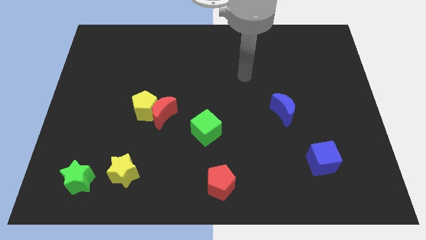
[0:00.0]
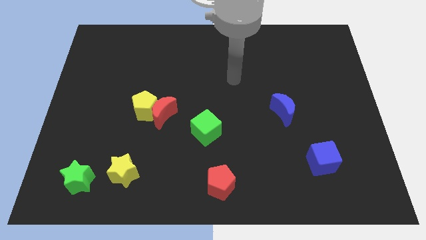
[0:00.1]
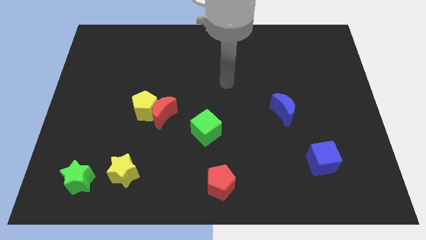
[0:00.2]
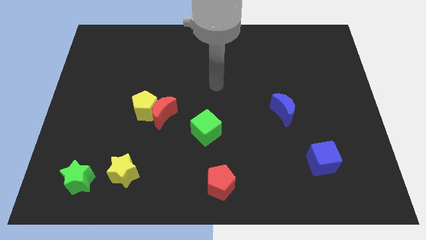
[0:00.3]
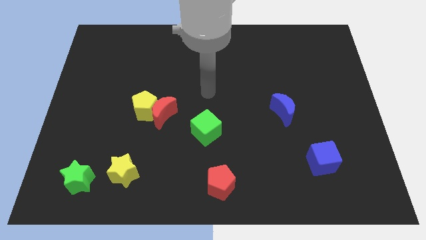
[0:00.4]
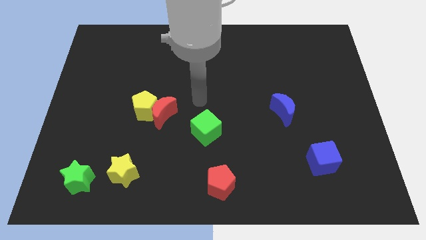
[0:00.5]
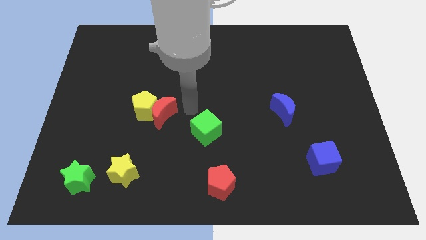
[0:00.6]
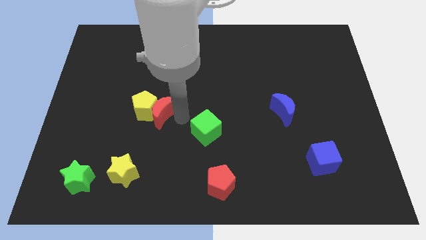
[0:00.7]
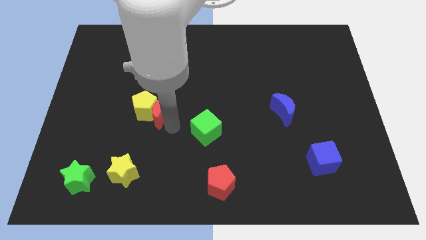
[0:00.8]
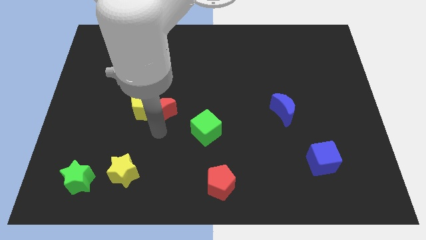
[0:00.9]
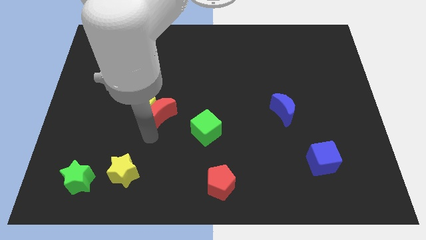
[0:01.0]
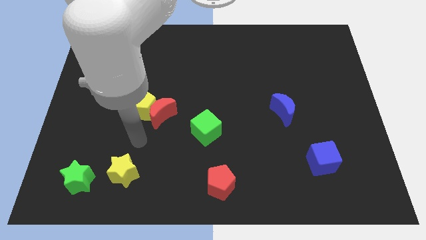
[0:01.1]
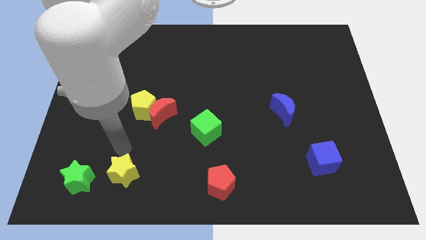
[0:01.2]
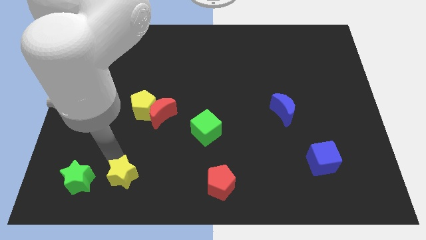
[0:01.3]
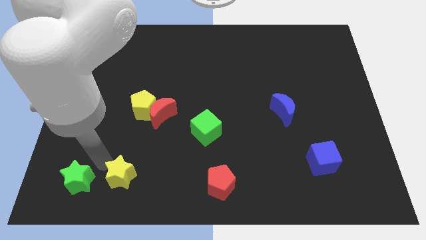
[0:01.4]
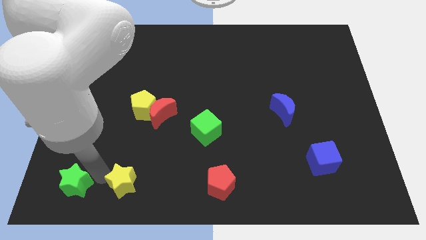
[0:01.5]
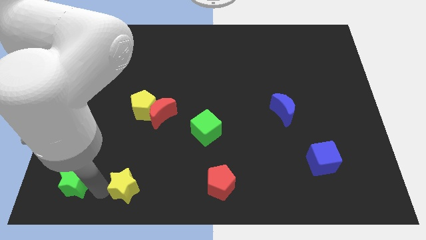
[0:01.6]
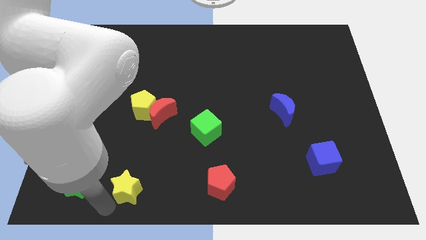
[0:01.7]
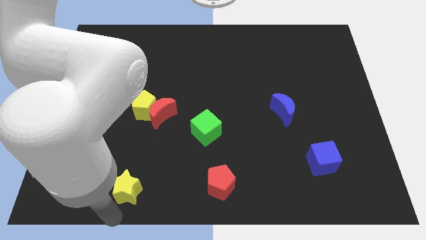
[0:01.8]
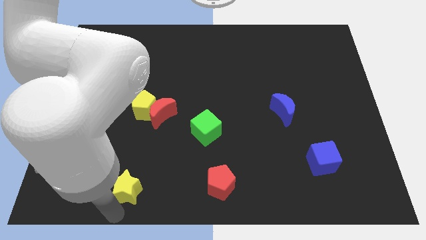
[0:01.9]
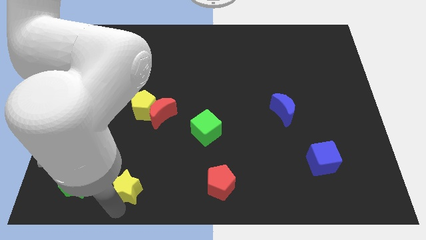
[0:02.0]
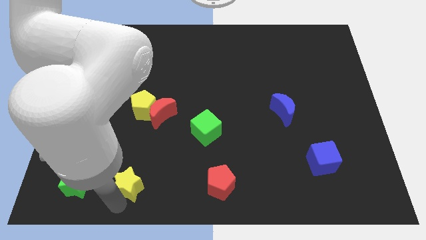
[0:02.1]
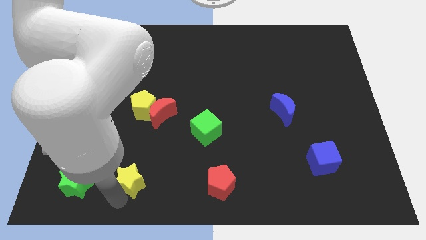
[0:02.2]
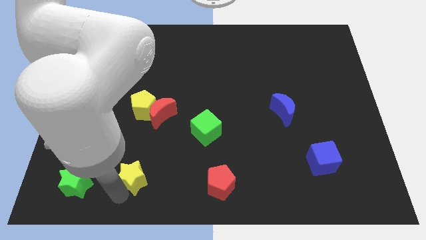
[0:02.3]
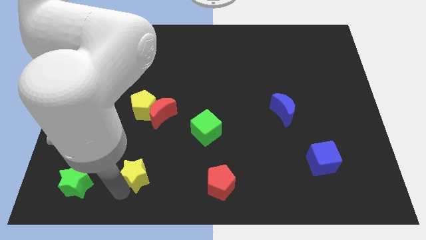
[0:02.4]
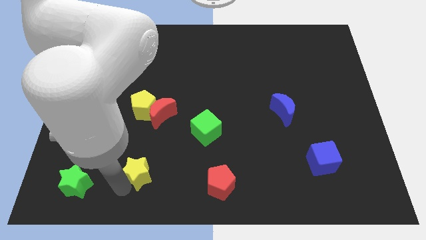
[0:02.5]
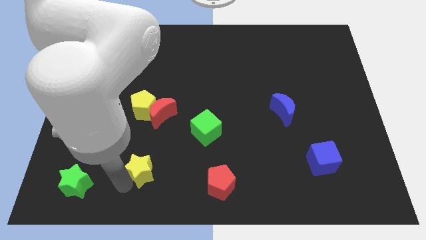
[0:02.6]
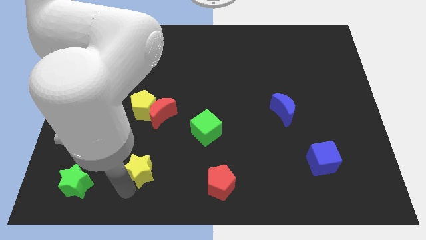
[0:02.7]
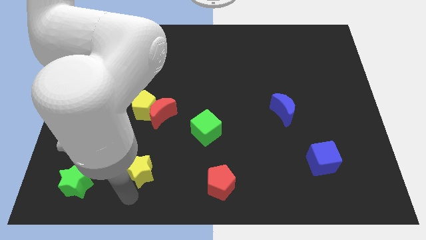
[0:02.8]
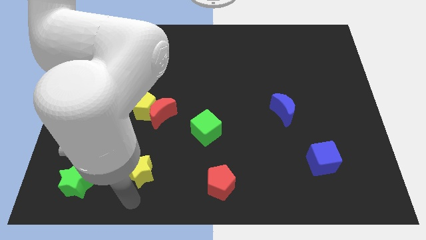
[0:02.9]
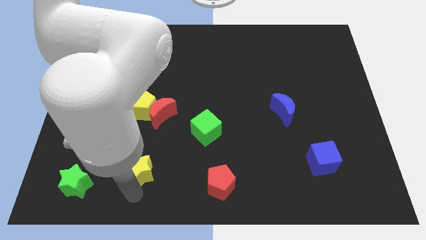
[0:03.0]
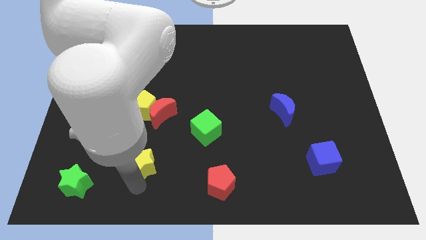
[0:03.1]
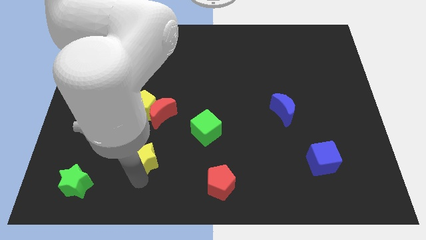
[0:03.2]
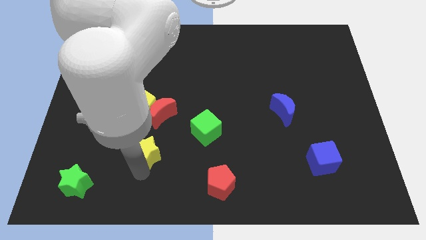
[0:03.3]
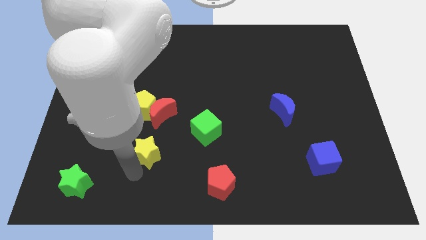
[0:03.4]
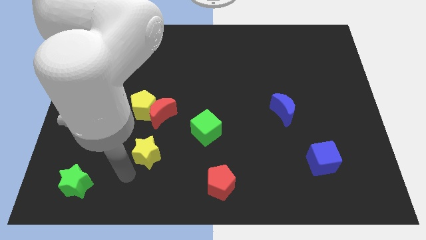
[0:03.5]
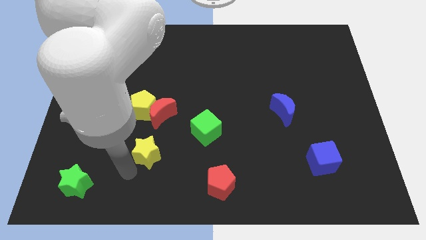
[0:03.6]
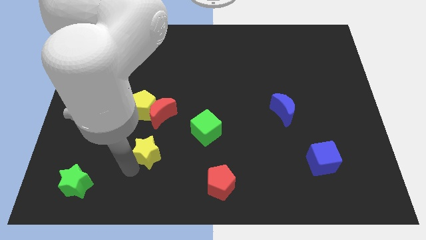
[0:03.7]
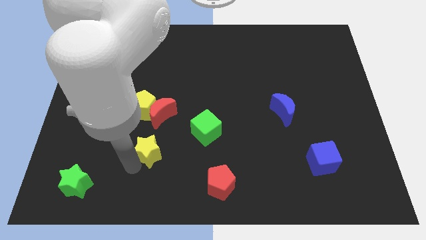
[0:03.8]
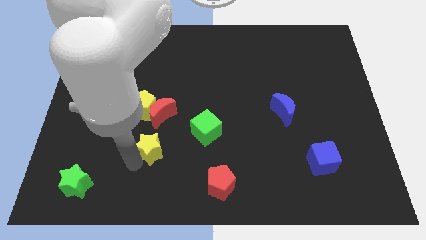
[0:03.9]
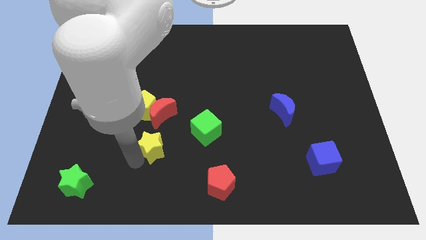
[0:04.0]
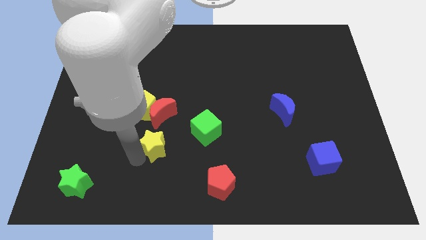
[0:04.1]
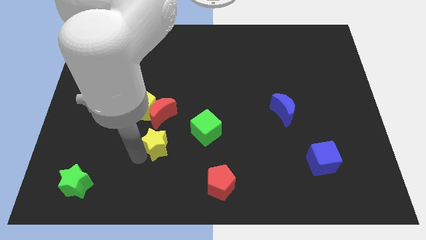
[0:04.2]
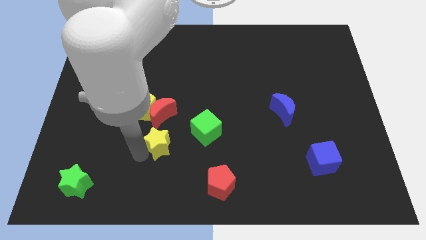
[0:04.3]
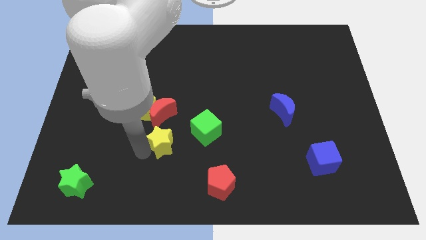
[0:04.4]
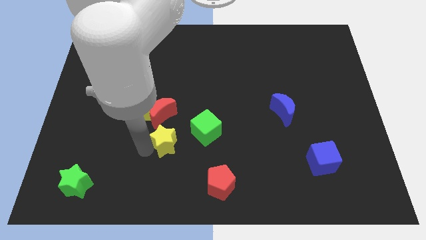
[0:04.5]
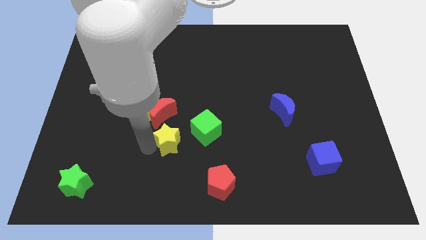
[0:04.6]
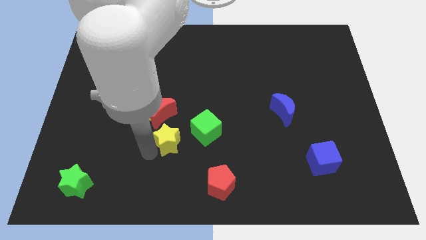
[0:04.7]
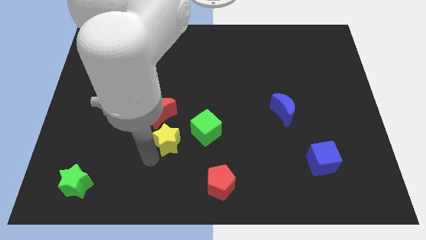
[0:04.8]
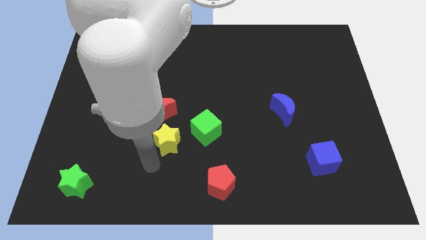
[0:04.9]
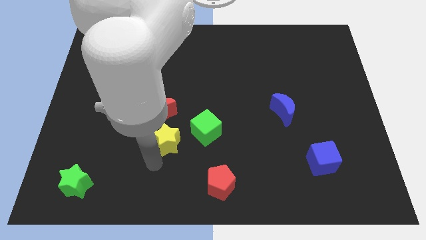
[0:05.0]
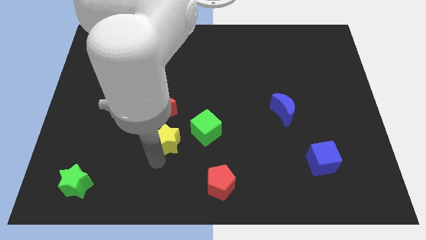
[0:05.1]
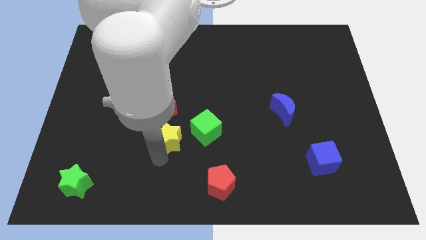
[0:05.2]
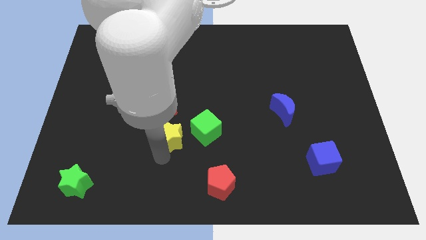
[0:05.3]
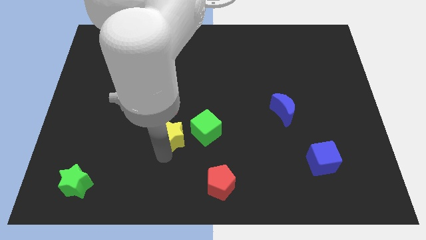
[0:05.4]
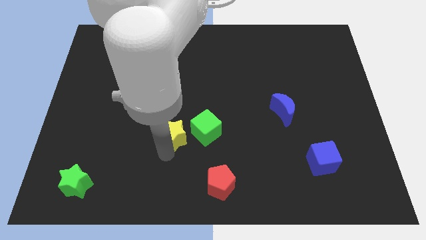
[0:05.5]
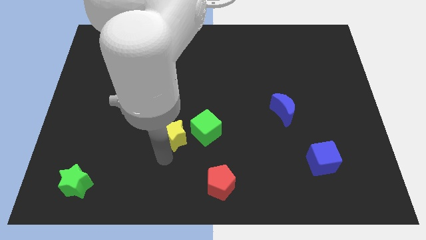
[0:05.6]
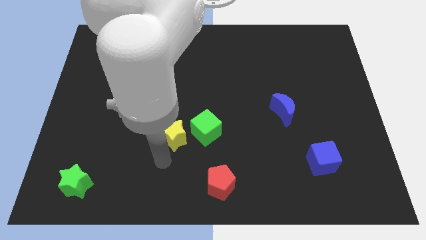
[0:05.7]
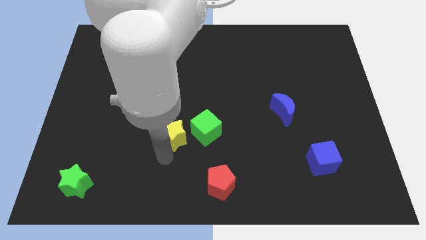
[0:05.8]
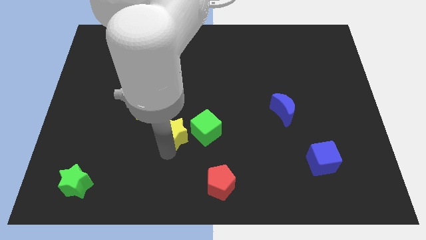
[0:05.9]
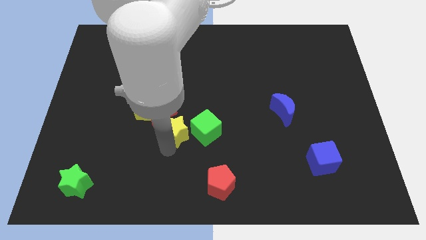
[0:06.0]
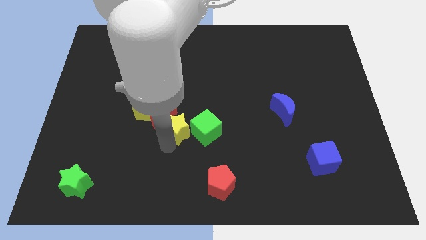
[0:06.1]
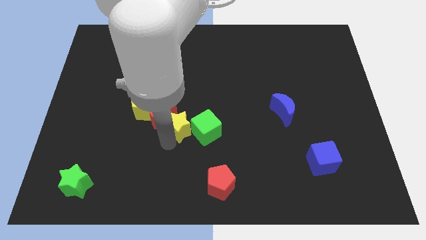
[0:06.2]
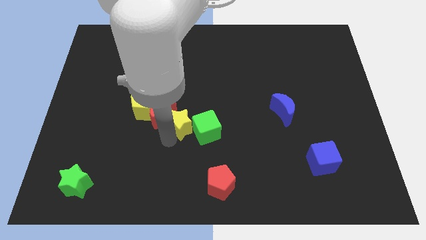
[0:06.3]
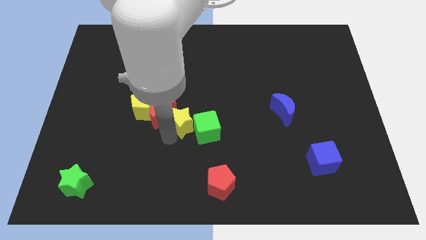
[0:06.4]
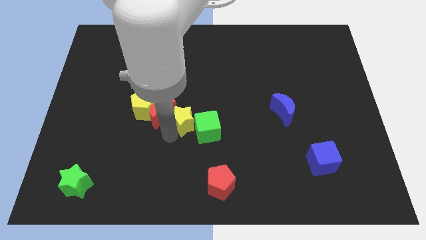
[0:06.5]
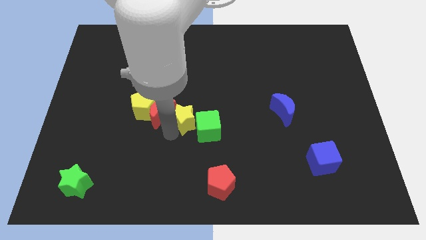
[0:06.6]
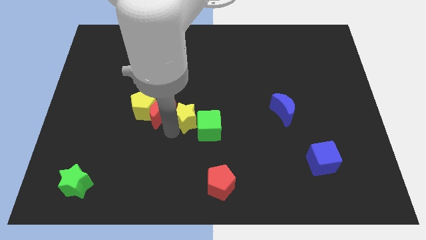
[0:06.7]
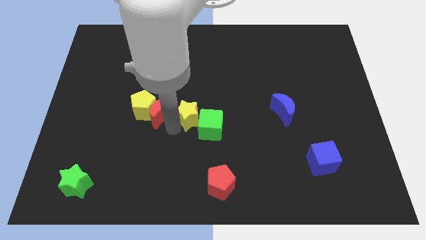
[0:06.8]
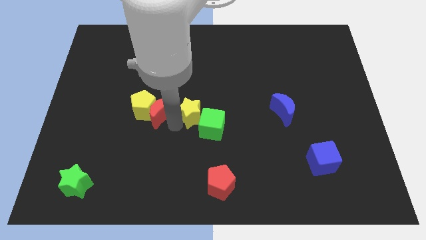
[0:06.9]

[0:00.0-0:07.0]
move the yellow star diagonally upwards and right

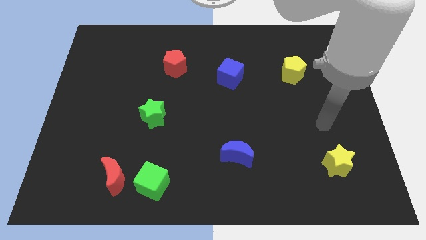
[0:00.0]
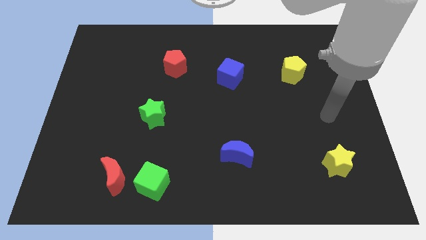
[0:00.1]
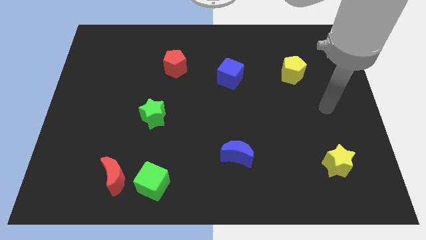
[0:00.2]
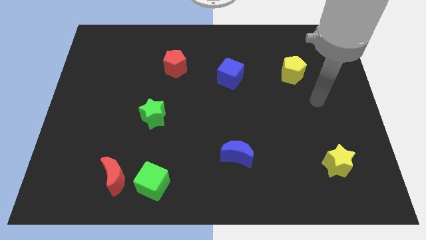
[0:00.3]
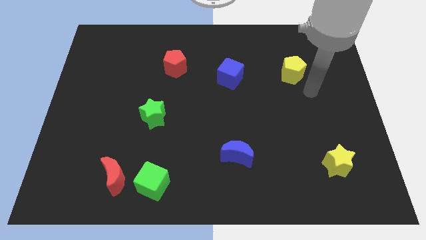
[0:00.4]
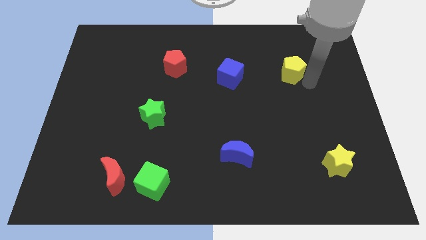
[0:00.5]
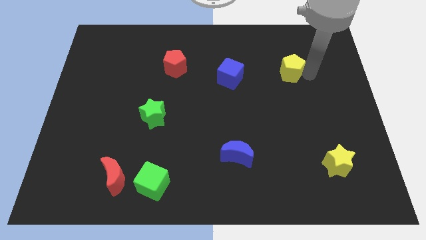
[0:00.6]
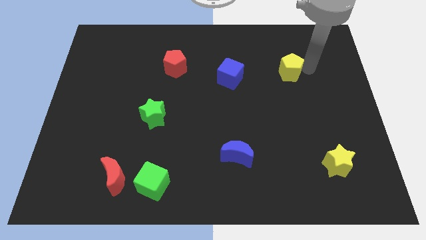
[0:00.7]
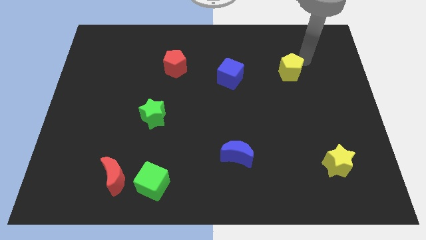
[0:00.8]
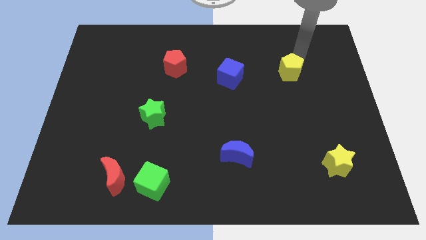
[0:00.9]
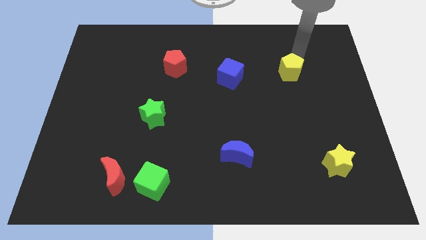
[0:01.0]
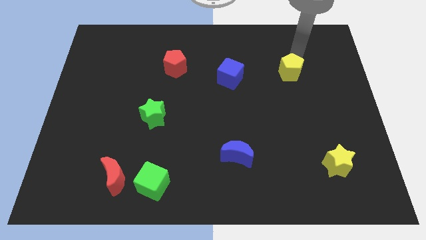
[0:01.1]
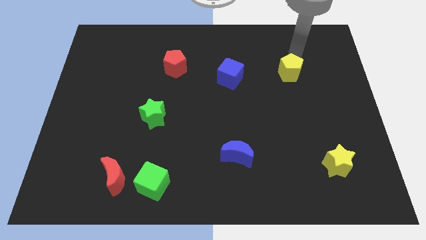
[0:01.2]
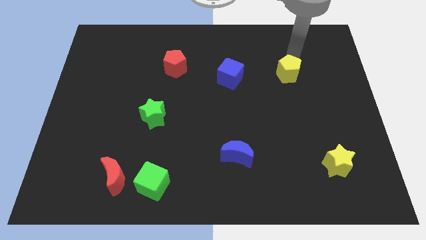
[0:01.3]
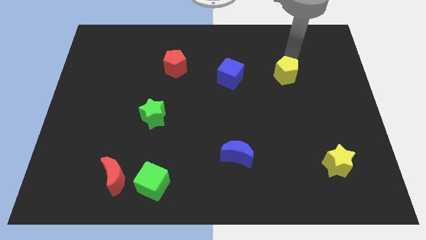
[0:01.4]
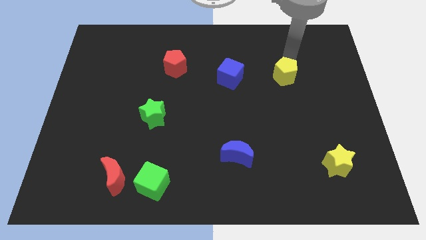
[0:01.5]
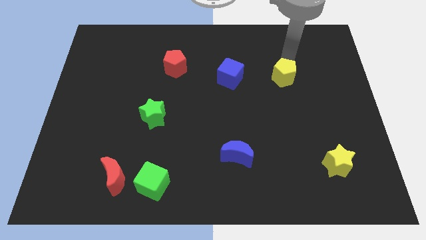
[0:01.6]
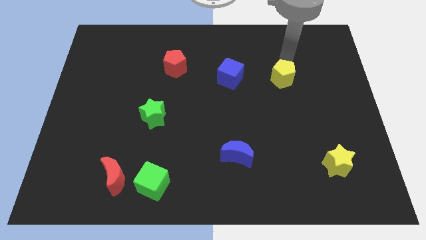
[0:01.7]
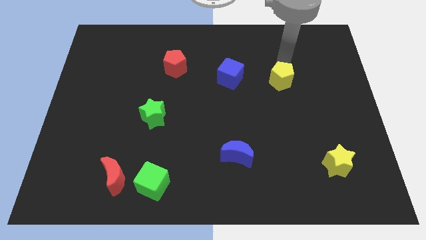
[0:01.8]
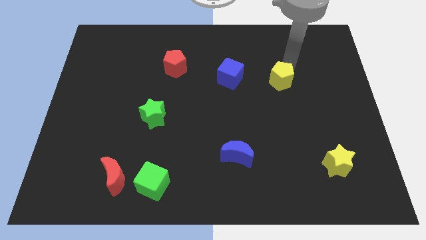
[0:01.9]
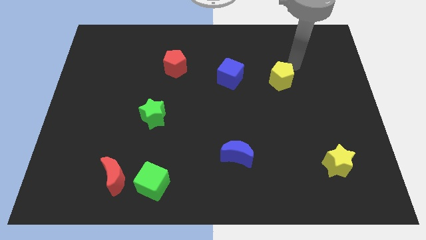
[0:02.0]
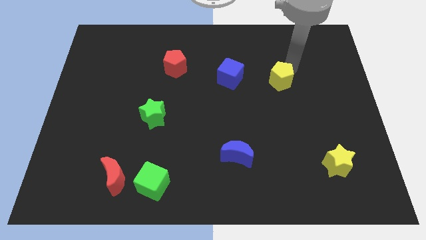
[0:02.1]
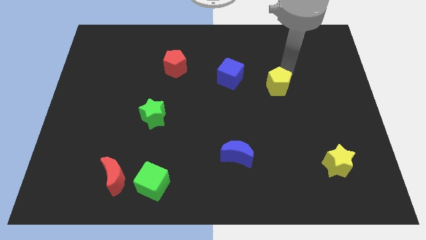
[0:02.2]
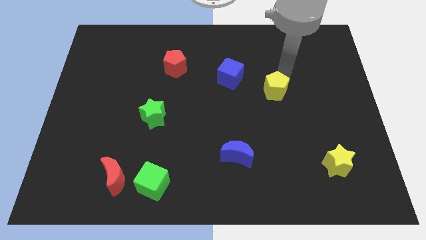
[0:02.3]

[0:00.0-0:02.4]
push the yellow pentagon diagonally down and left a little
